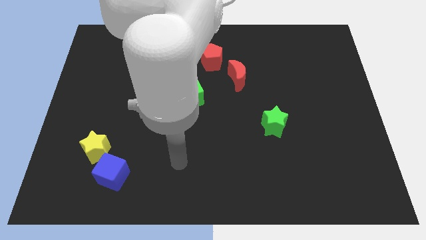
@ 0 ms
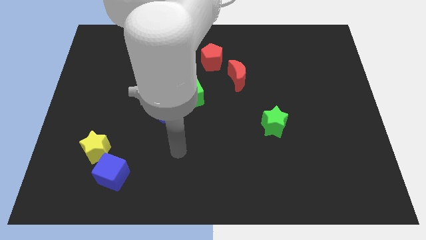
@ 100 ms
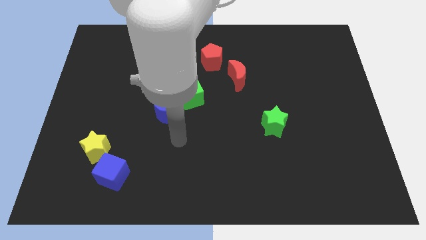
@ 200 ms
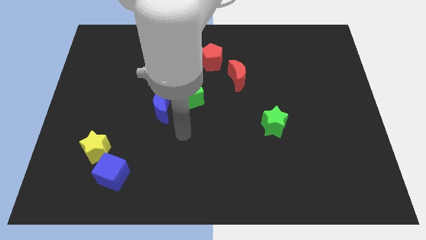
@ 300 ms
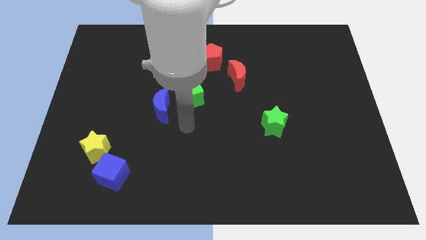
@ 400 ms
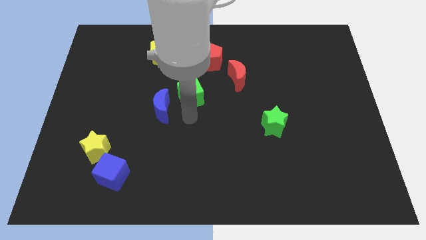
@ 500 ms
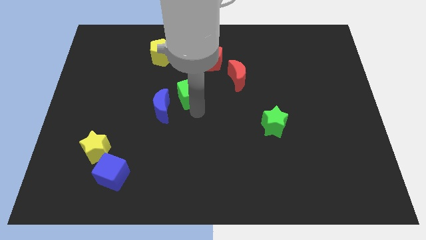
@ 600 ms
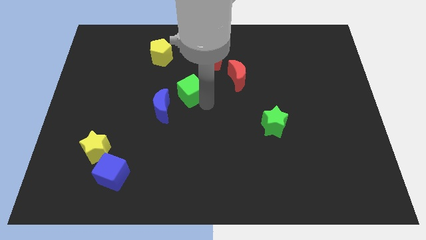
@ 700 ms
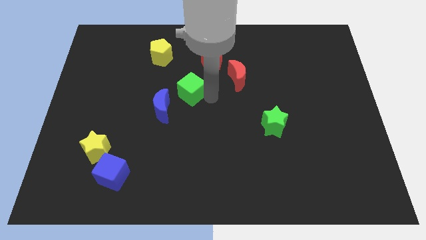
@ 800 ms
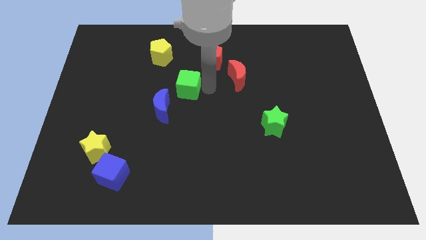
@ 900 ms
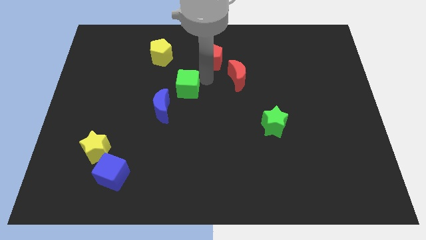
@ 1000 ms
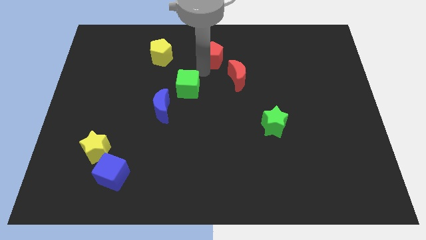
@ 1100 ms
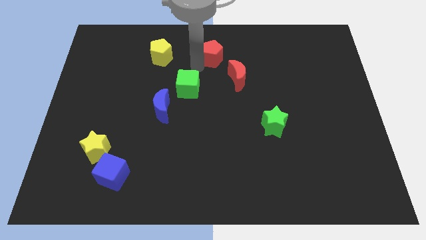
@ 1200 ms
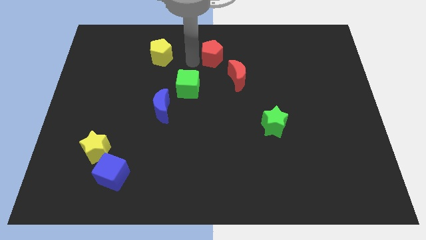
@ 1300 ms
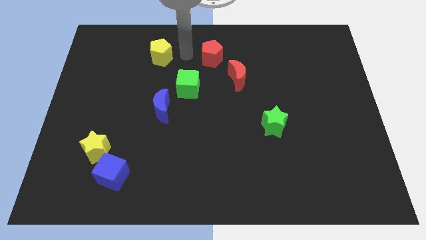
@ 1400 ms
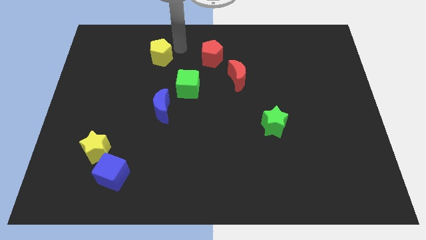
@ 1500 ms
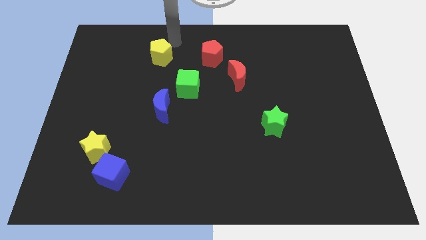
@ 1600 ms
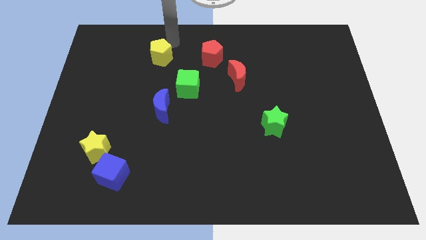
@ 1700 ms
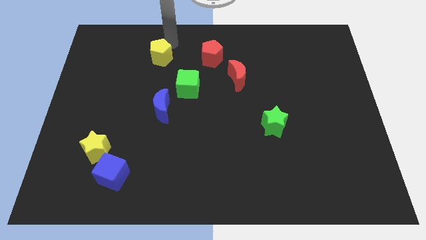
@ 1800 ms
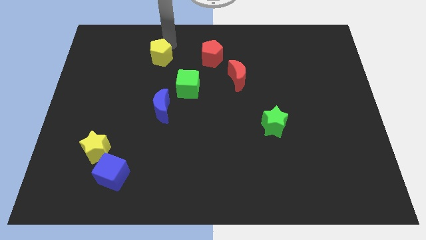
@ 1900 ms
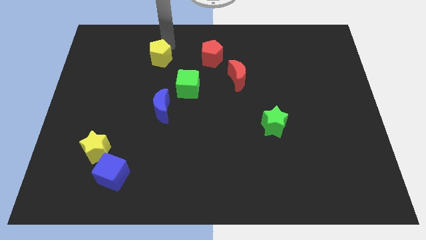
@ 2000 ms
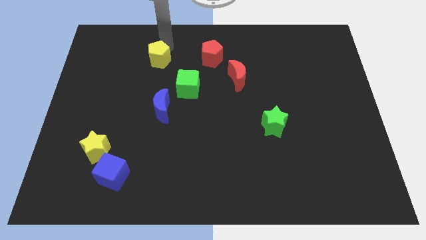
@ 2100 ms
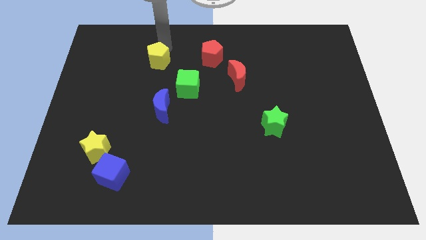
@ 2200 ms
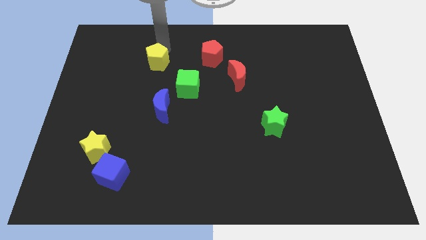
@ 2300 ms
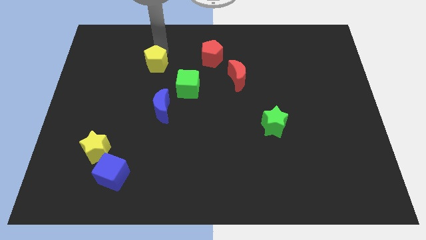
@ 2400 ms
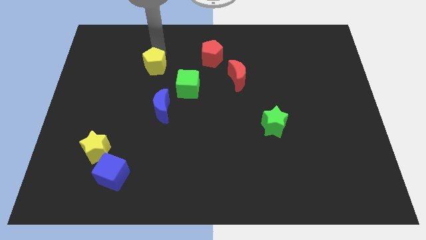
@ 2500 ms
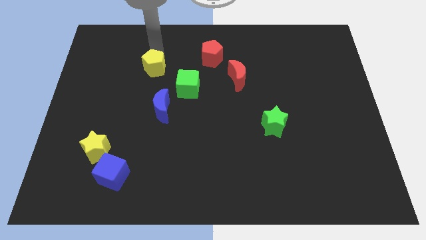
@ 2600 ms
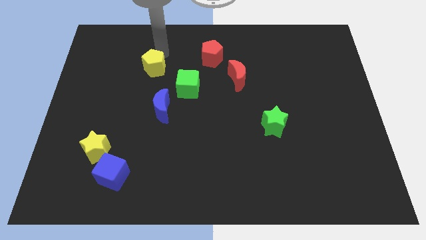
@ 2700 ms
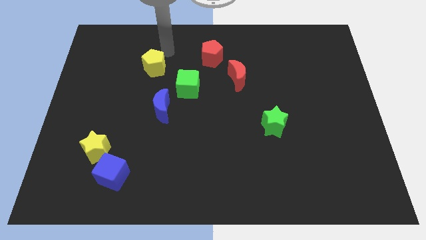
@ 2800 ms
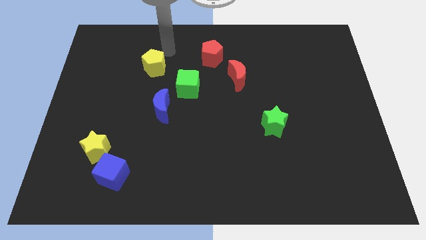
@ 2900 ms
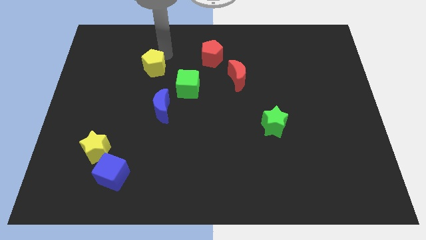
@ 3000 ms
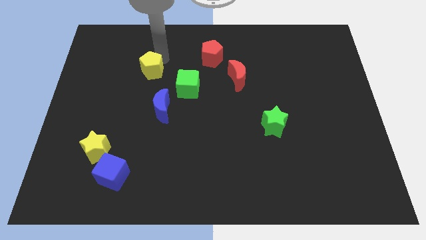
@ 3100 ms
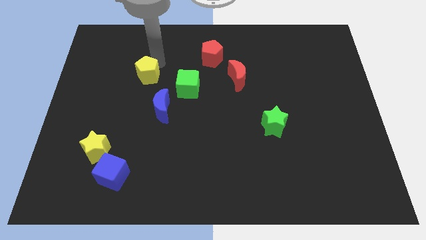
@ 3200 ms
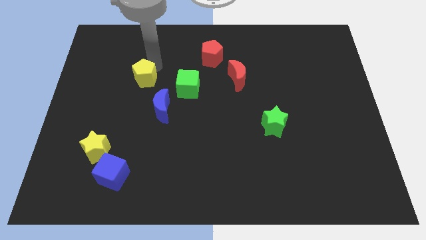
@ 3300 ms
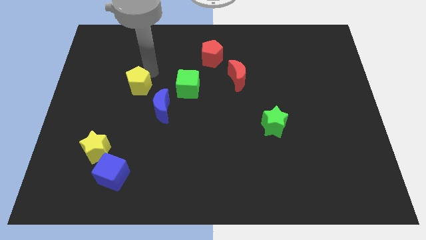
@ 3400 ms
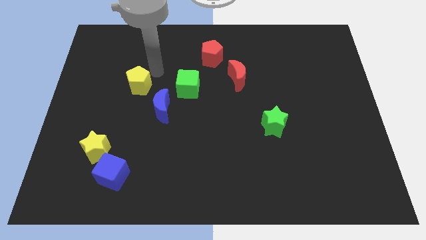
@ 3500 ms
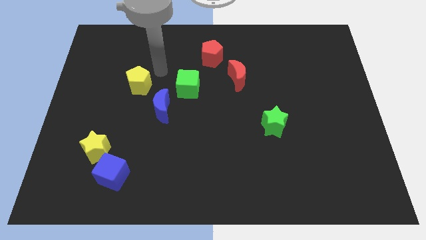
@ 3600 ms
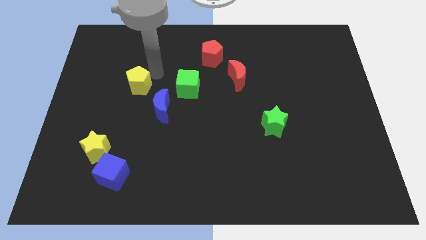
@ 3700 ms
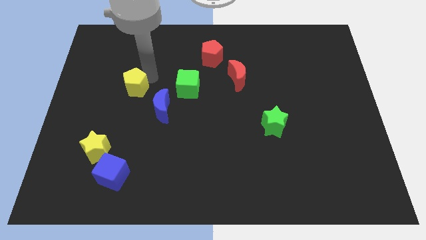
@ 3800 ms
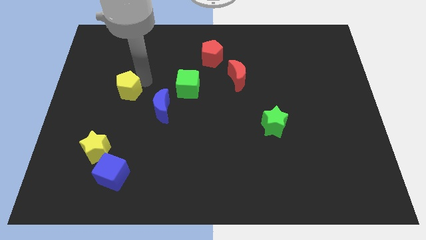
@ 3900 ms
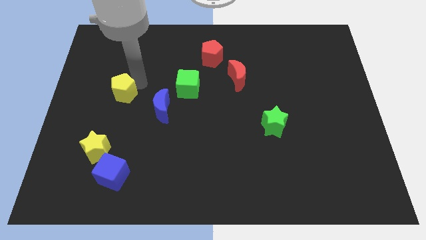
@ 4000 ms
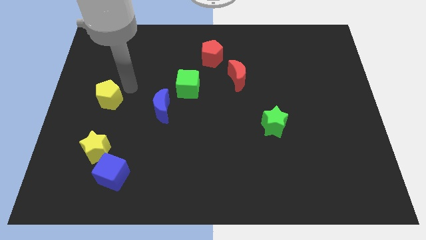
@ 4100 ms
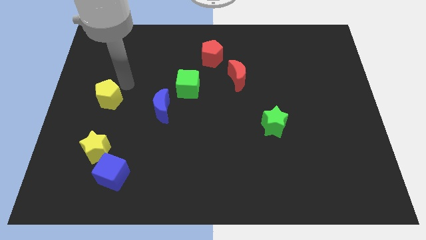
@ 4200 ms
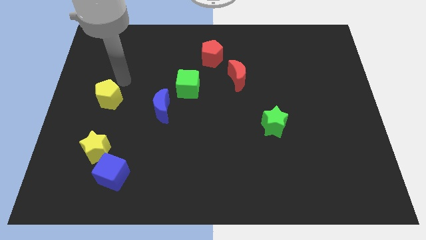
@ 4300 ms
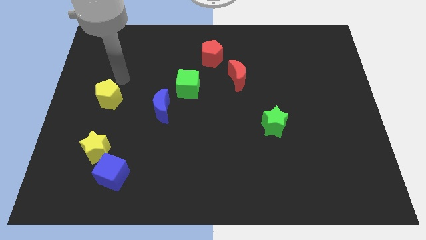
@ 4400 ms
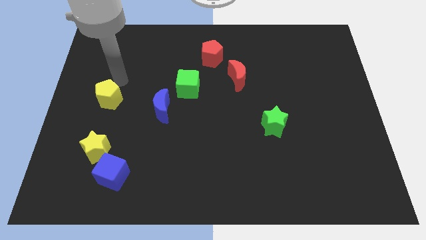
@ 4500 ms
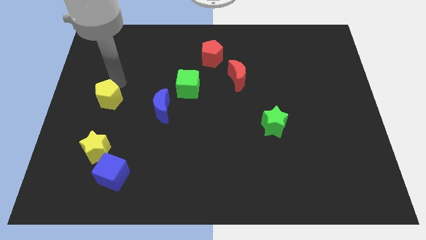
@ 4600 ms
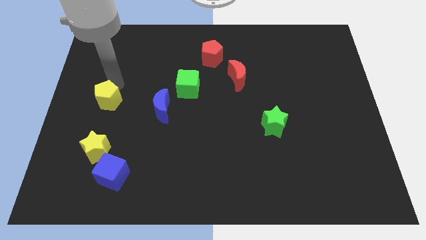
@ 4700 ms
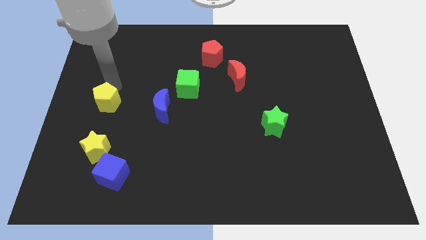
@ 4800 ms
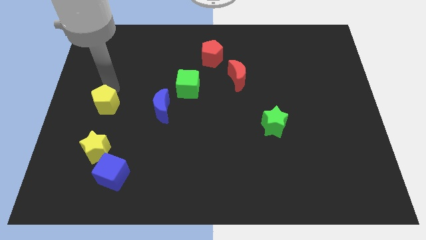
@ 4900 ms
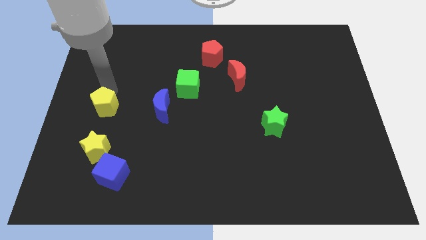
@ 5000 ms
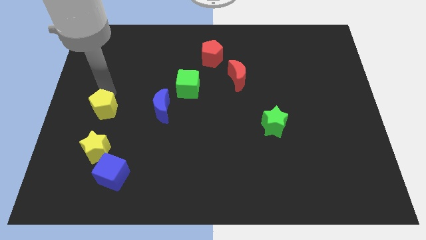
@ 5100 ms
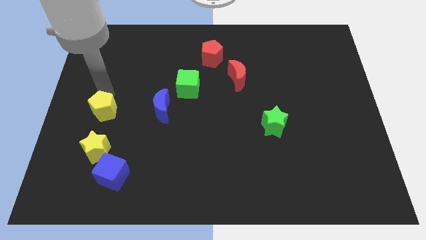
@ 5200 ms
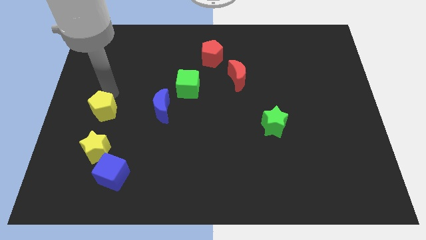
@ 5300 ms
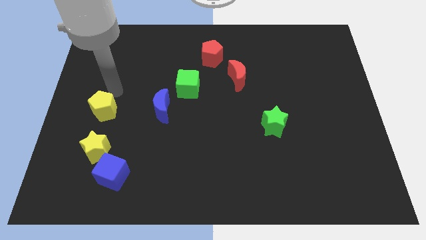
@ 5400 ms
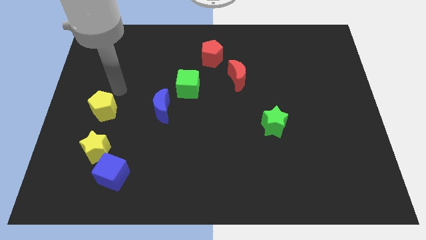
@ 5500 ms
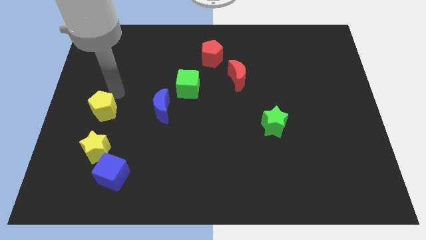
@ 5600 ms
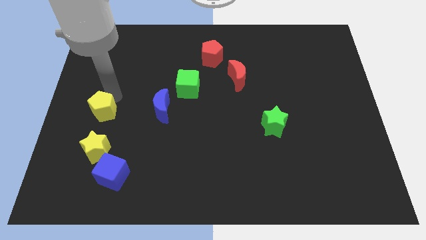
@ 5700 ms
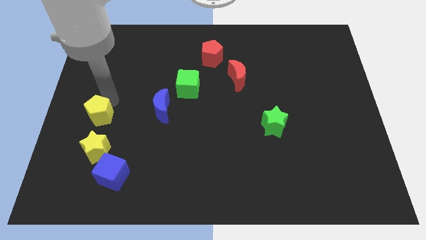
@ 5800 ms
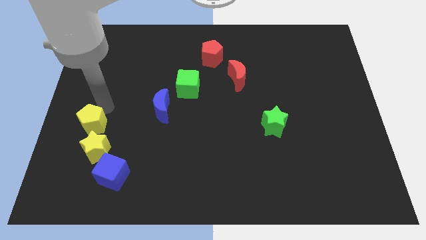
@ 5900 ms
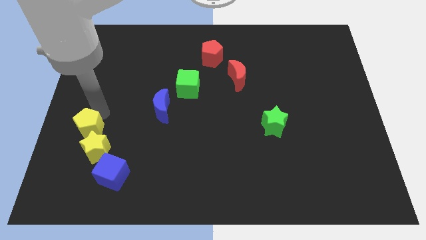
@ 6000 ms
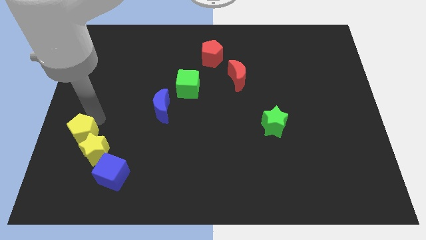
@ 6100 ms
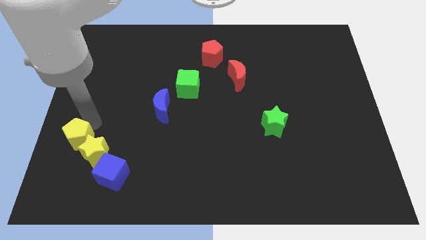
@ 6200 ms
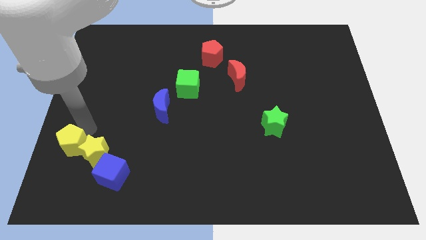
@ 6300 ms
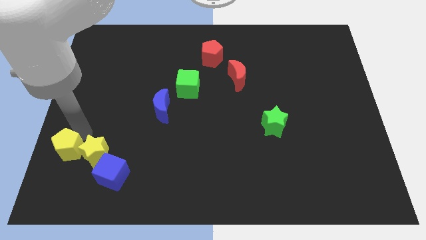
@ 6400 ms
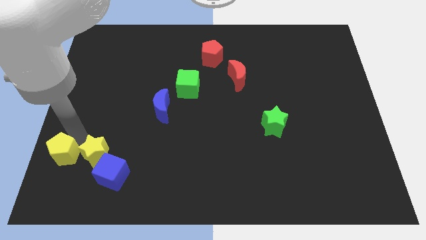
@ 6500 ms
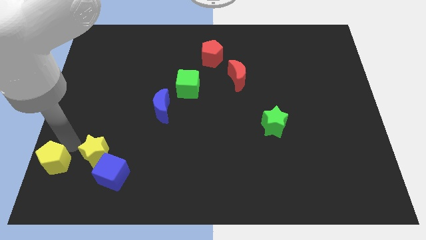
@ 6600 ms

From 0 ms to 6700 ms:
move the yellow pentagon to the bottom left corner
